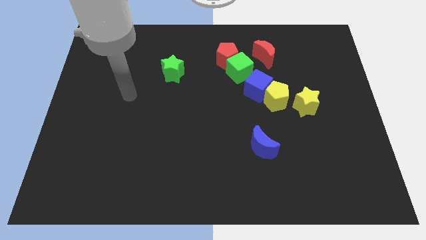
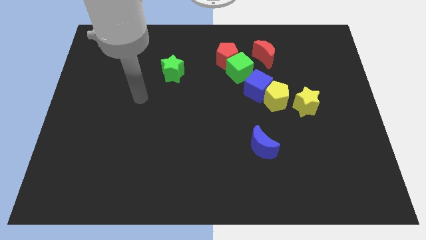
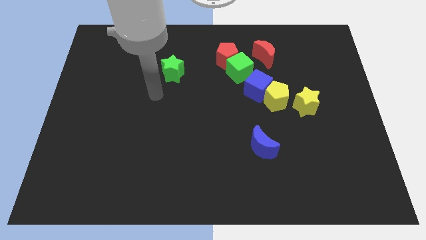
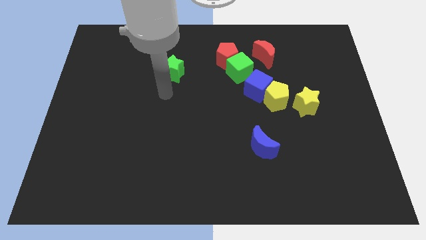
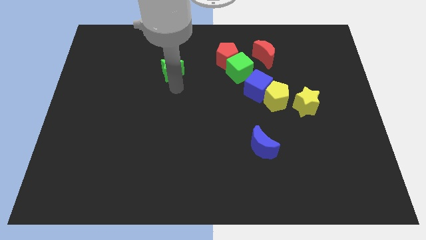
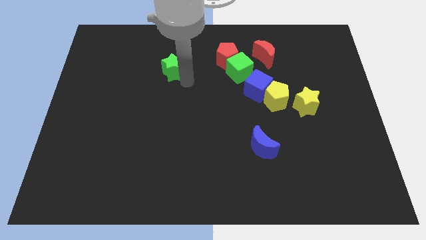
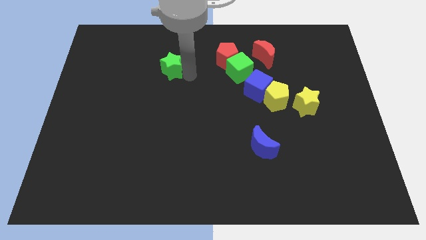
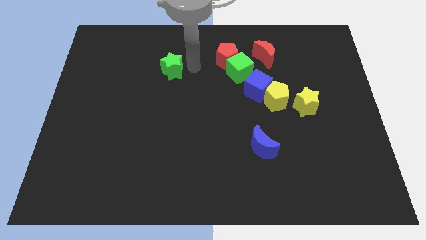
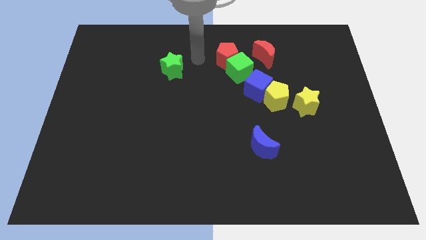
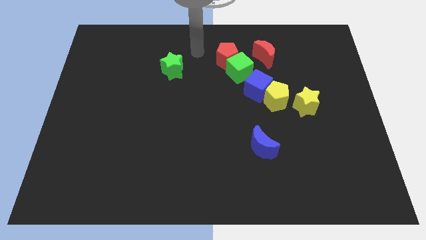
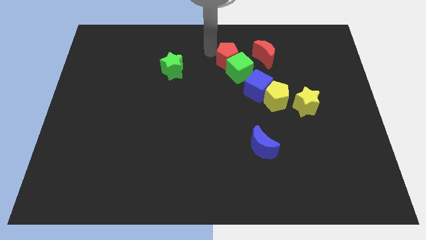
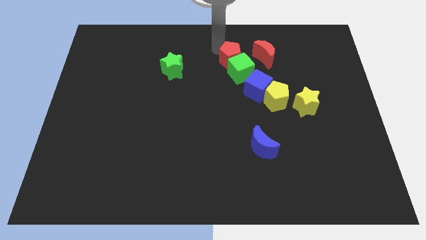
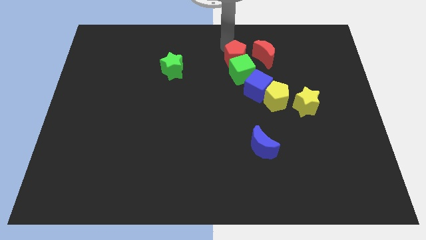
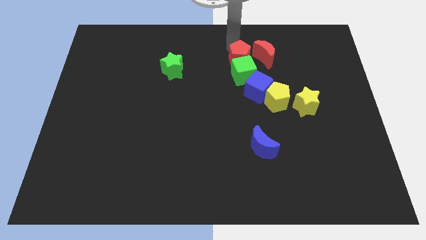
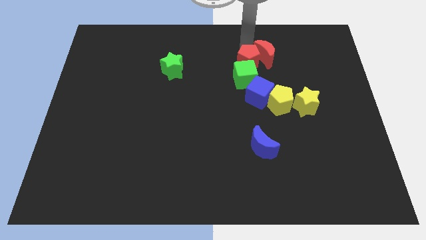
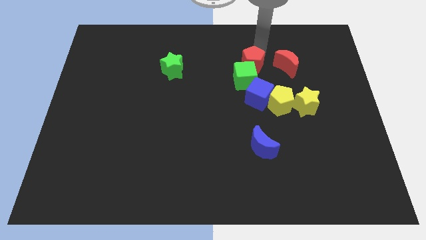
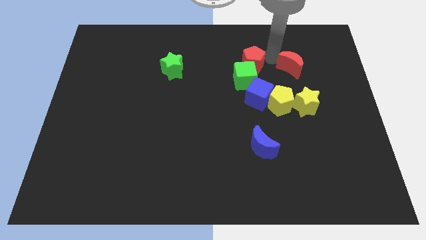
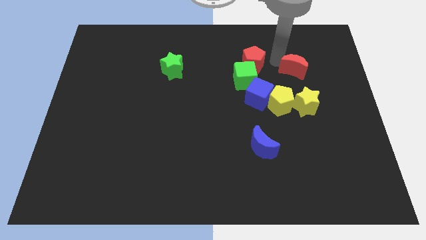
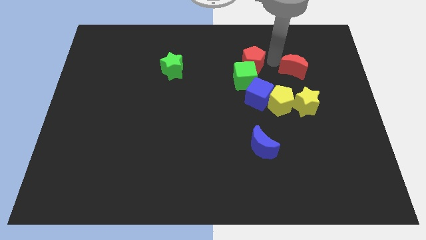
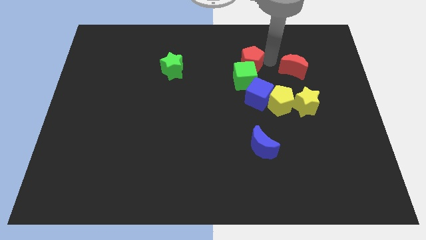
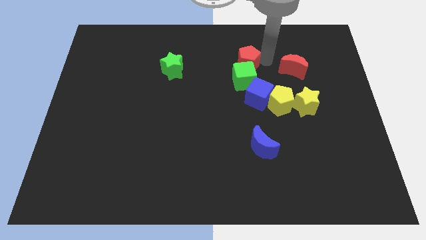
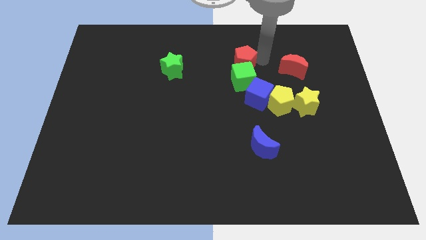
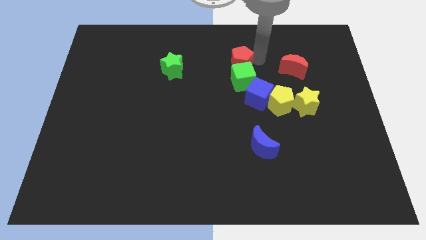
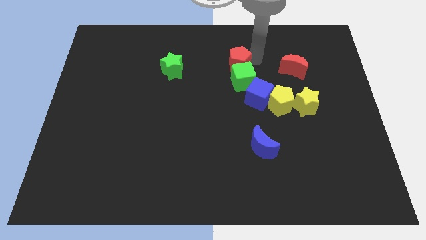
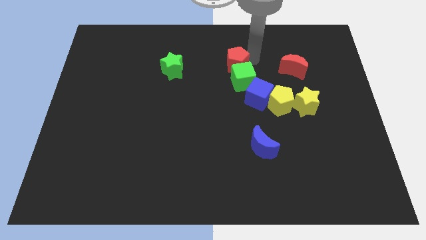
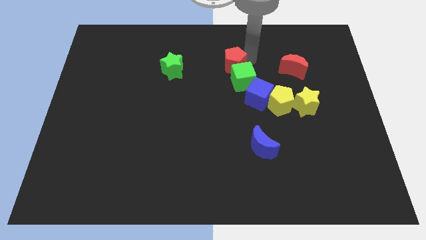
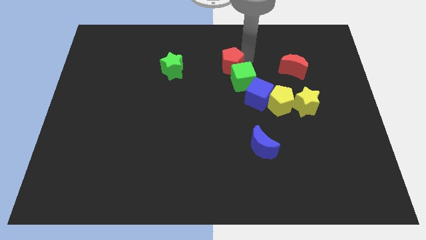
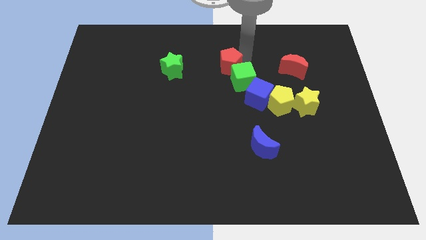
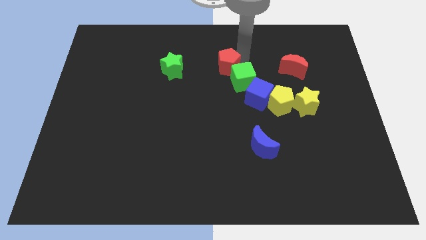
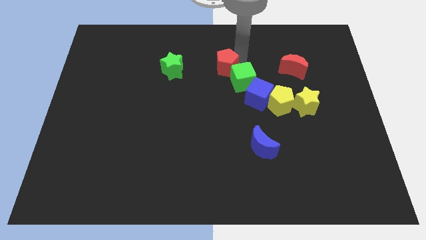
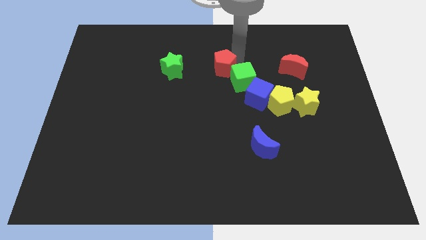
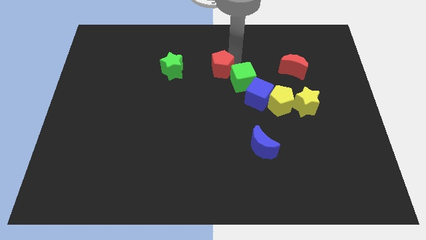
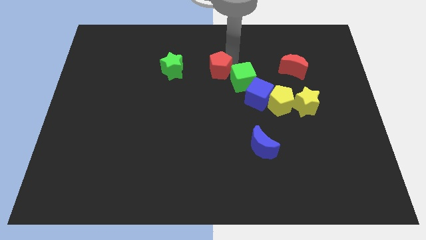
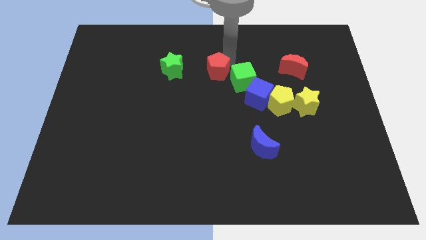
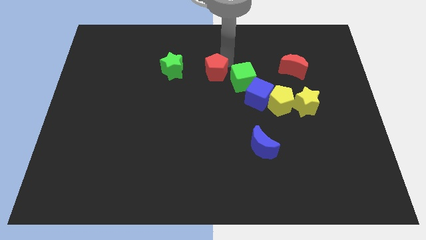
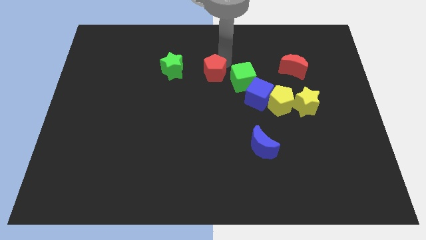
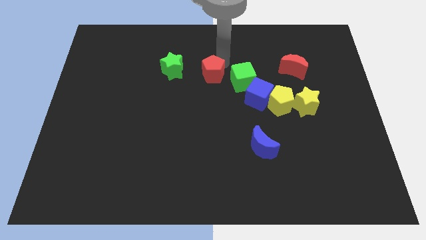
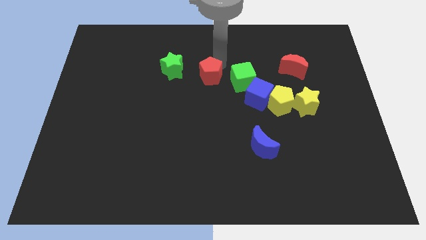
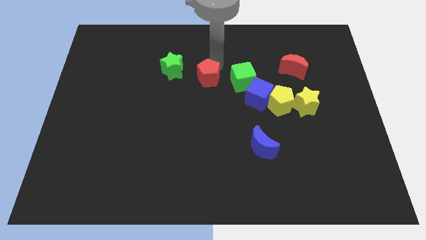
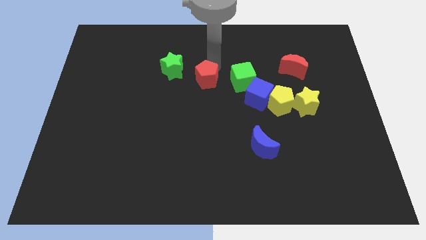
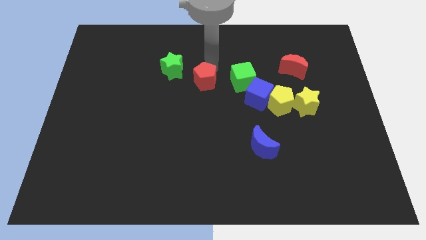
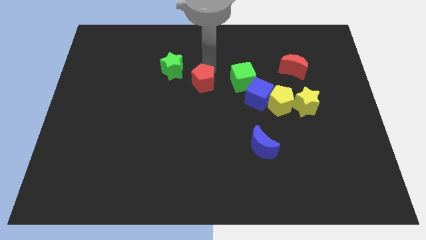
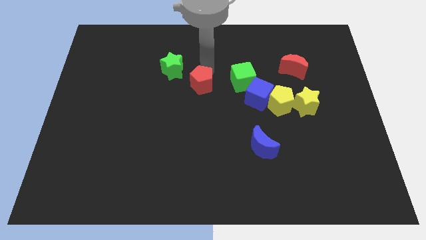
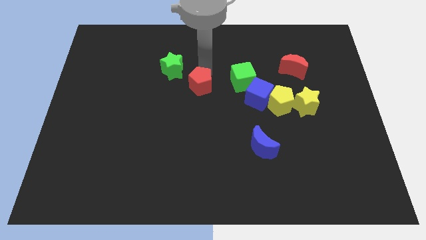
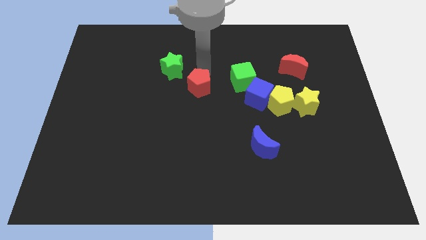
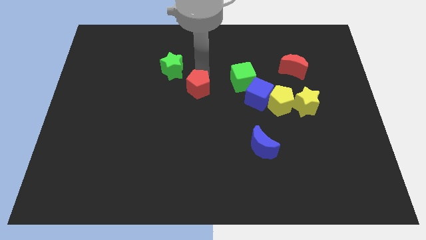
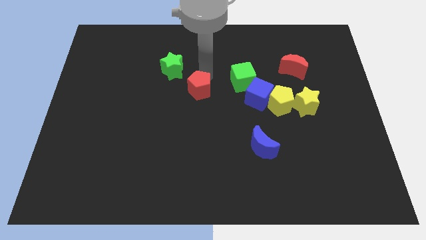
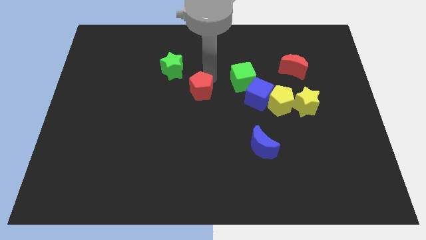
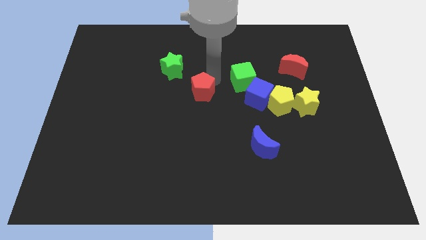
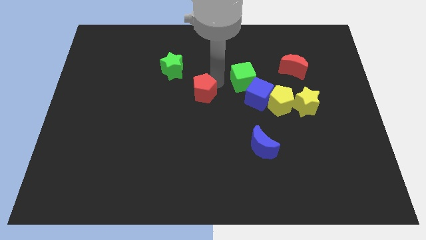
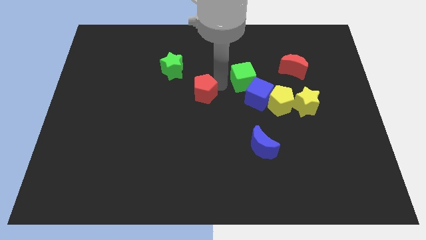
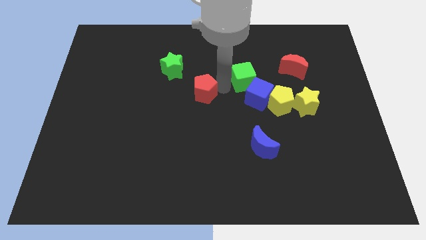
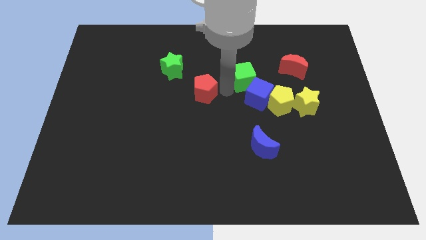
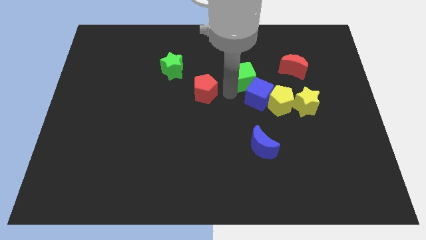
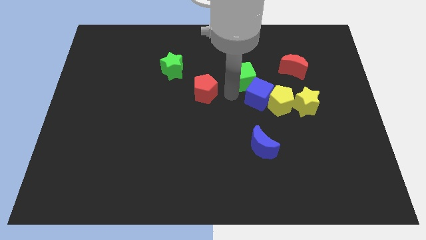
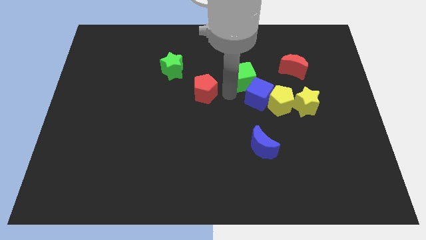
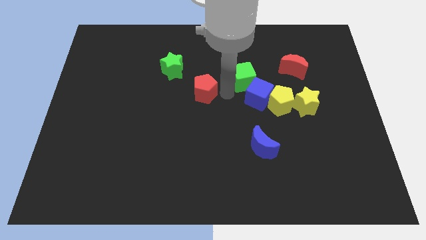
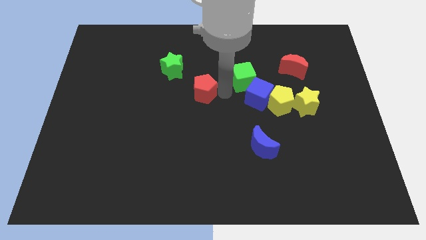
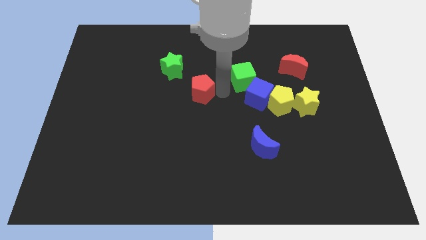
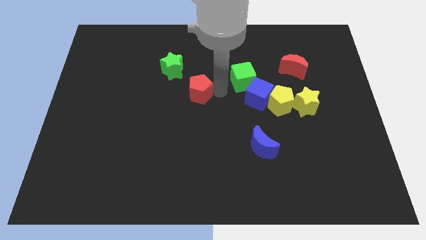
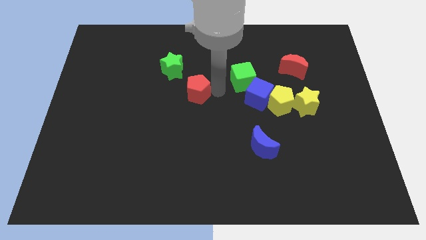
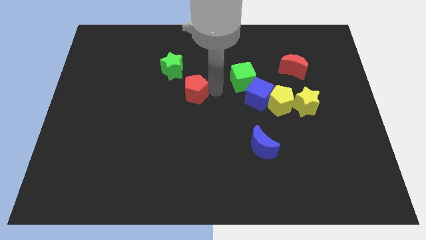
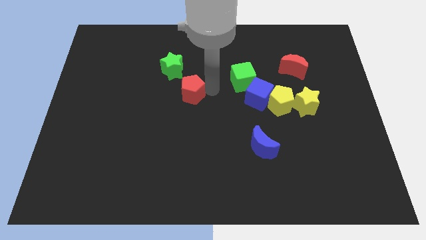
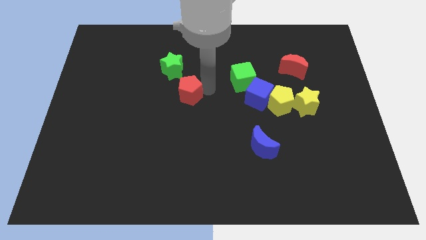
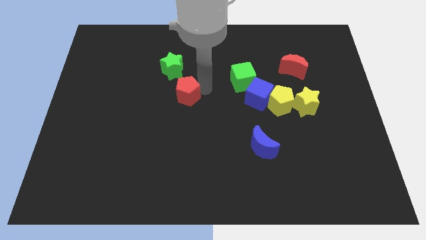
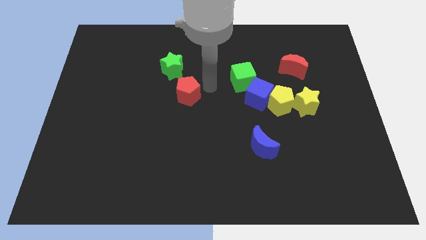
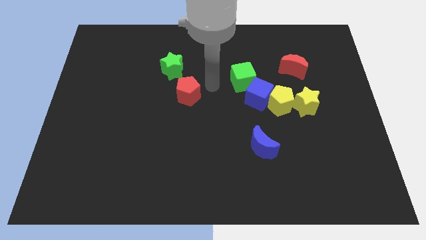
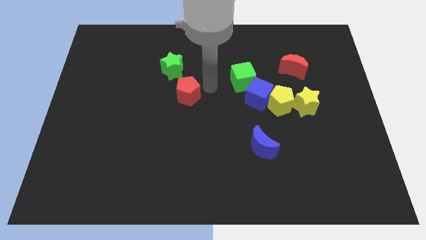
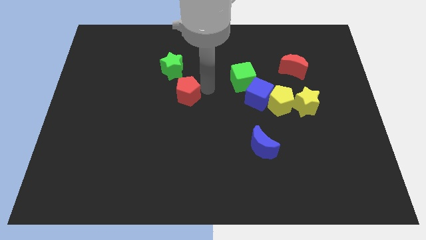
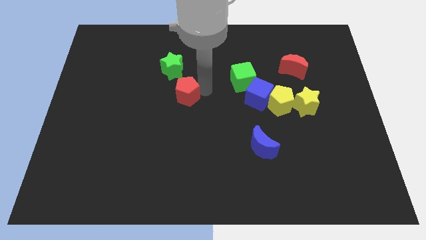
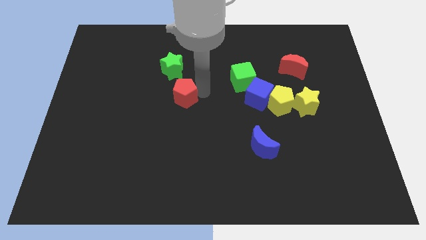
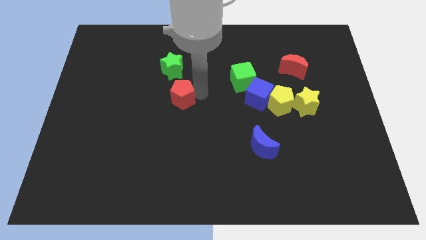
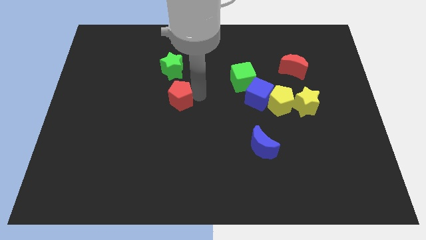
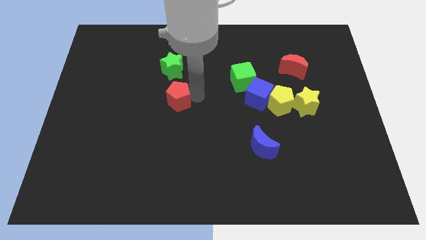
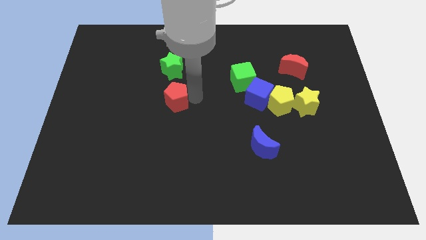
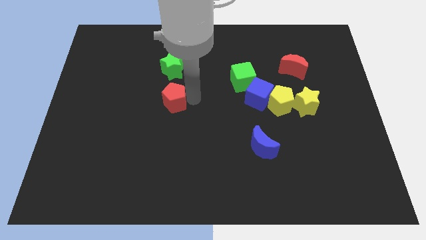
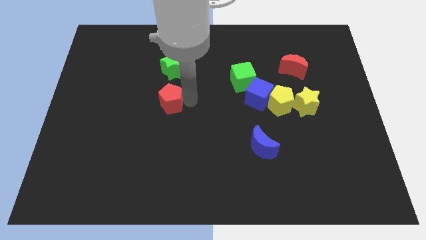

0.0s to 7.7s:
move the red pentagon downwards and left

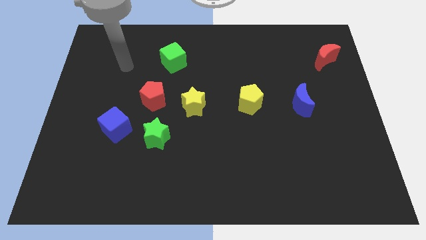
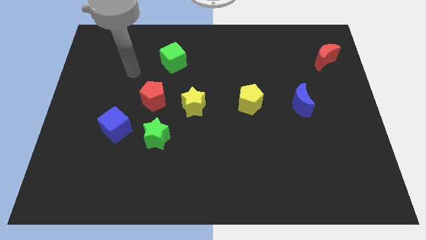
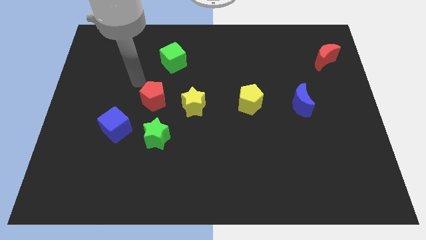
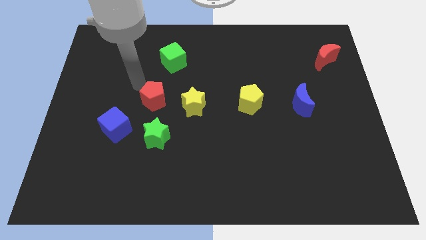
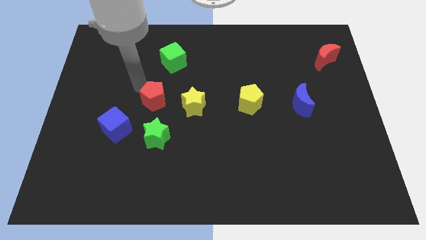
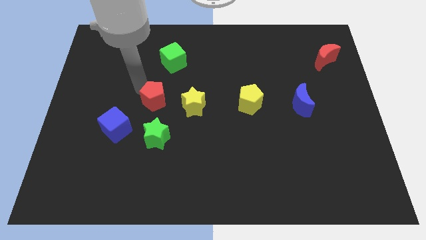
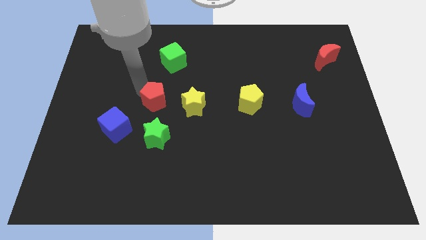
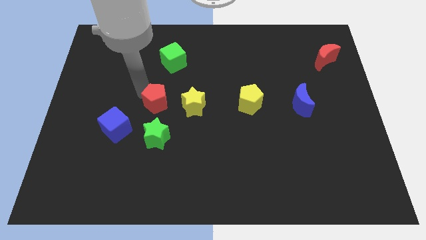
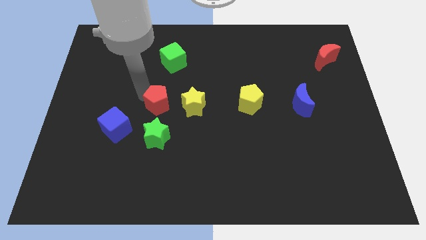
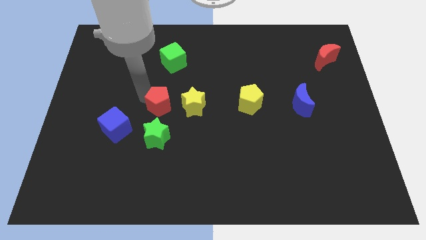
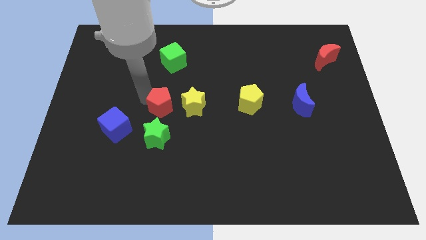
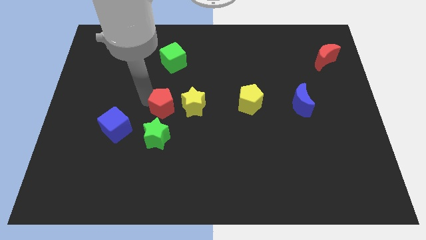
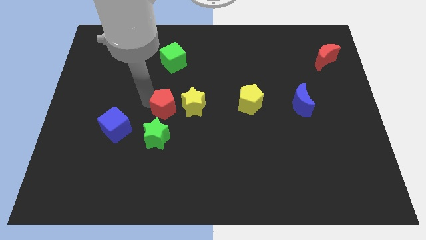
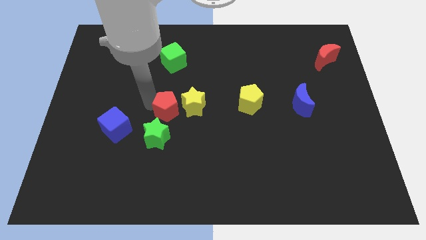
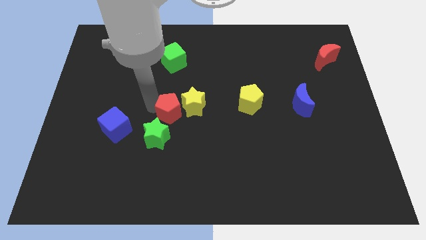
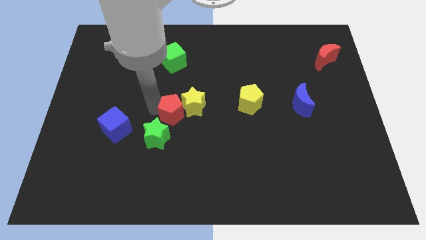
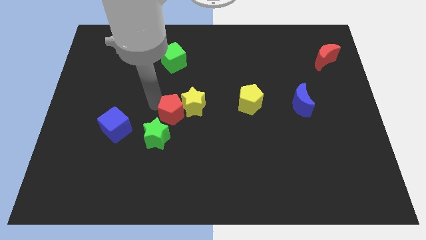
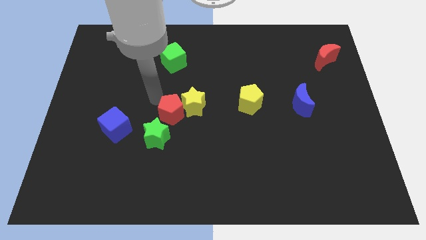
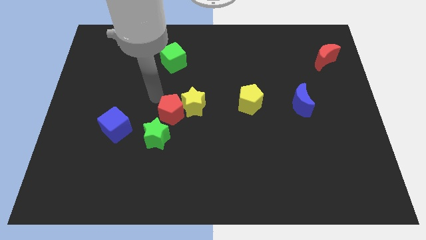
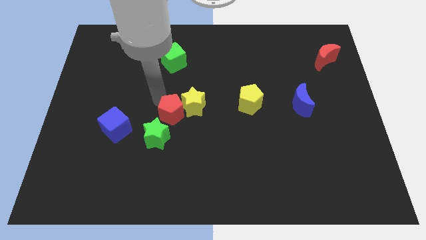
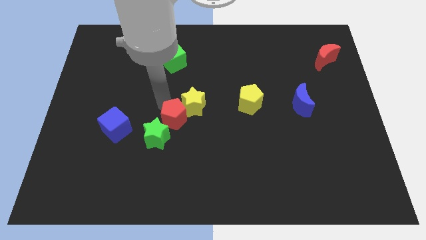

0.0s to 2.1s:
slightly push the red pentagon downwards and then right
